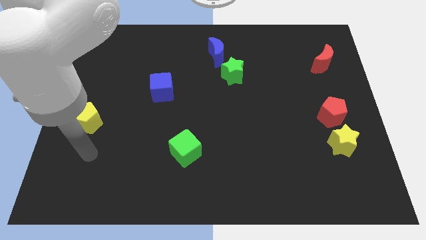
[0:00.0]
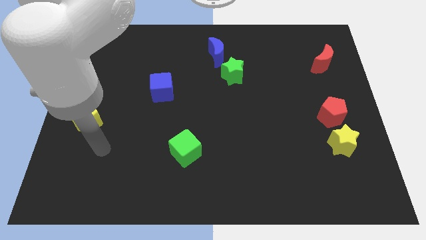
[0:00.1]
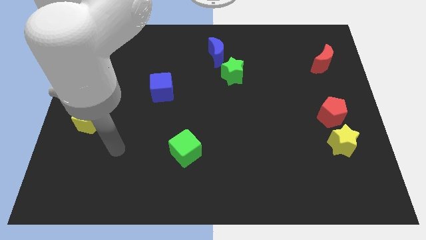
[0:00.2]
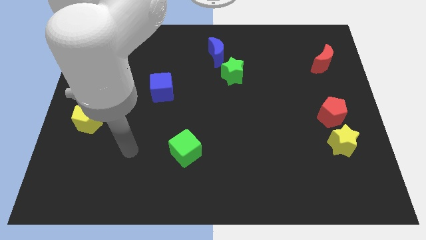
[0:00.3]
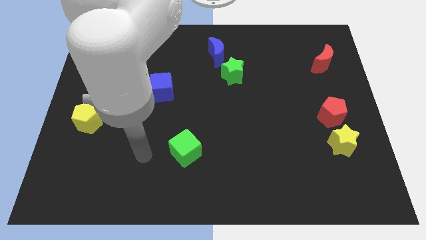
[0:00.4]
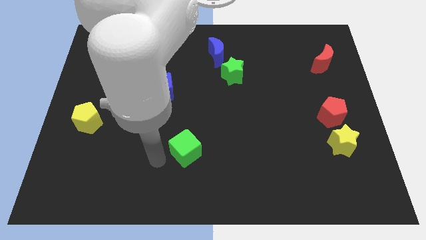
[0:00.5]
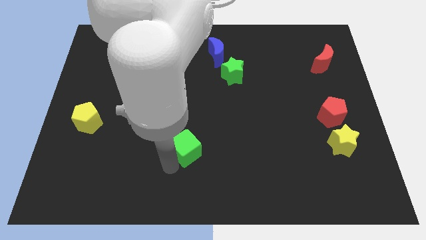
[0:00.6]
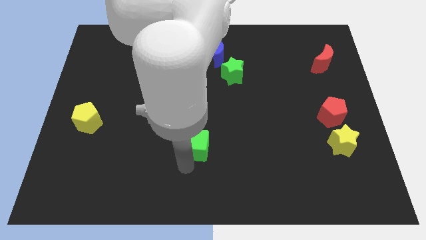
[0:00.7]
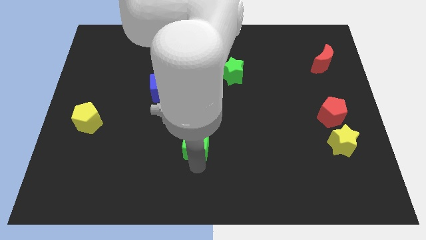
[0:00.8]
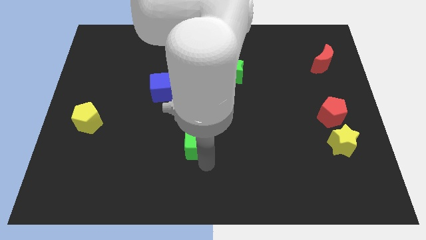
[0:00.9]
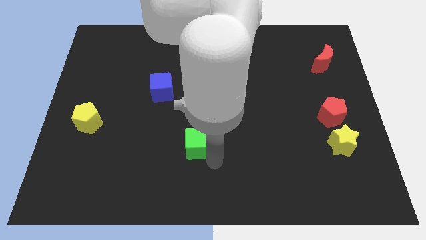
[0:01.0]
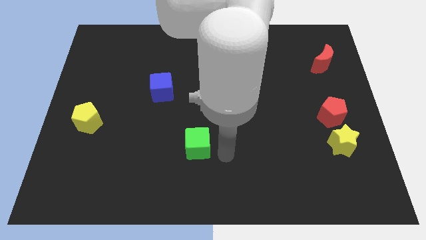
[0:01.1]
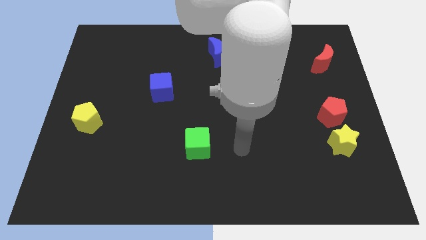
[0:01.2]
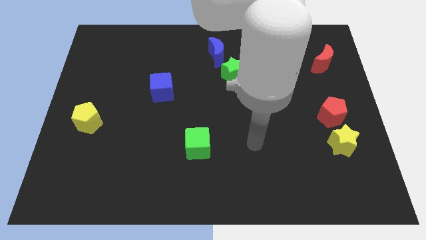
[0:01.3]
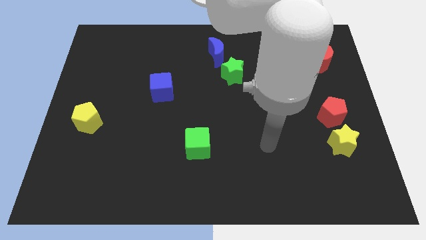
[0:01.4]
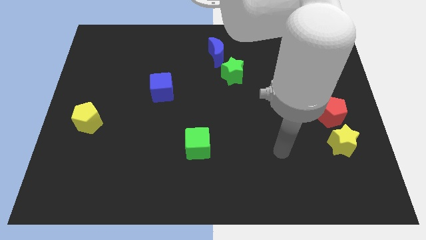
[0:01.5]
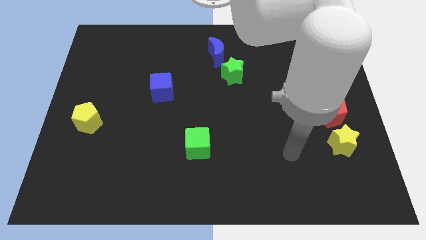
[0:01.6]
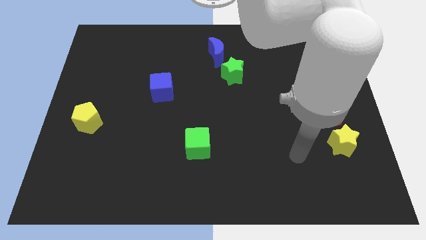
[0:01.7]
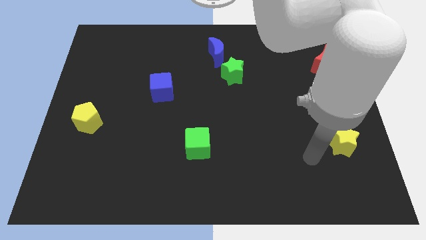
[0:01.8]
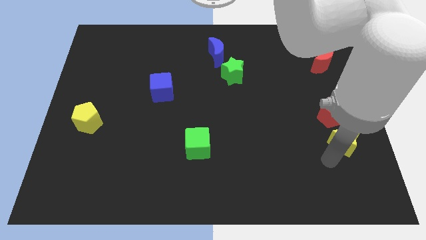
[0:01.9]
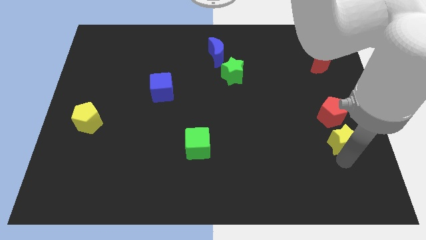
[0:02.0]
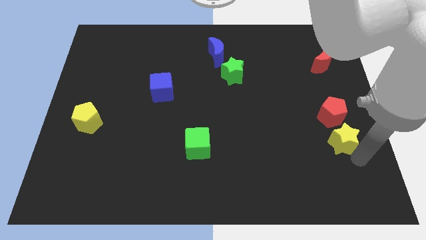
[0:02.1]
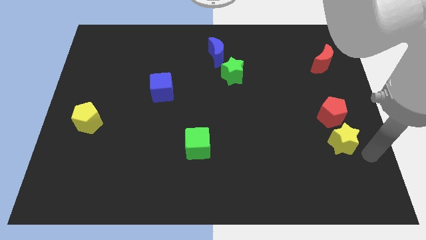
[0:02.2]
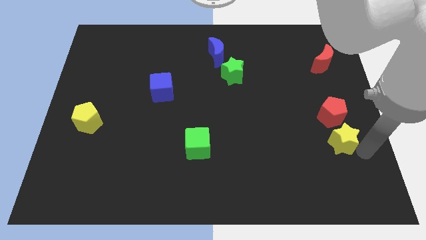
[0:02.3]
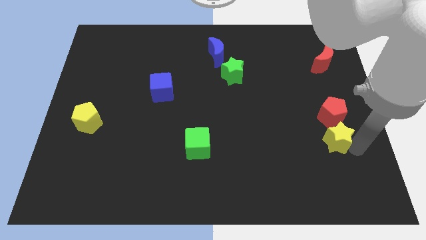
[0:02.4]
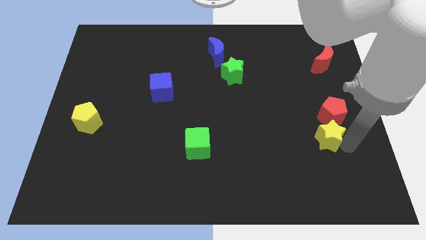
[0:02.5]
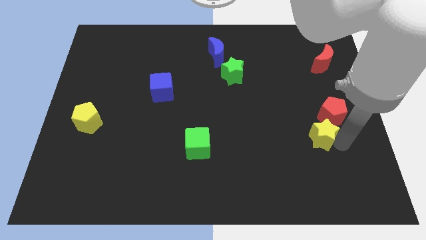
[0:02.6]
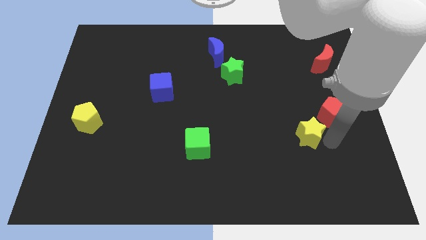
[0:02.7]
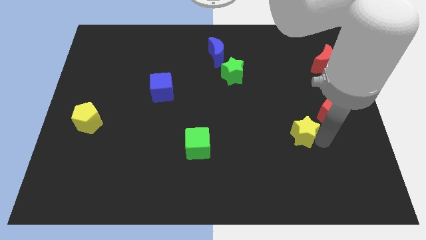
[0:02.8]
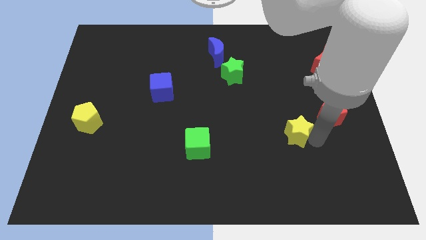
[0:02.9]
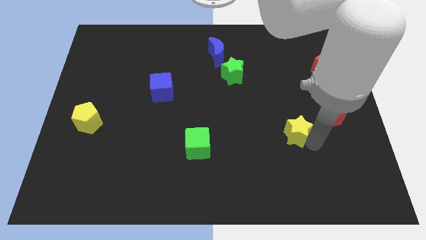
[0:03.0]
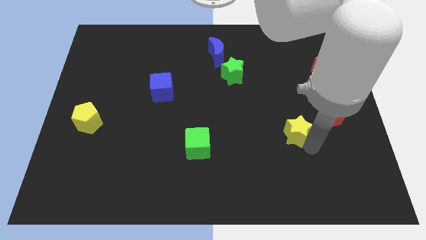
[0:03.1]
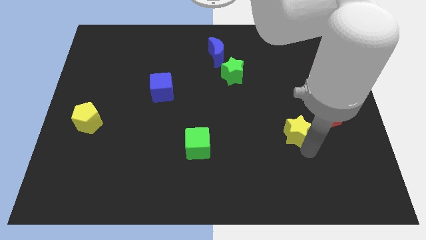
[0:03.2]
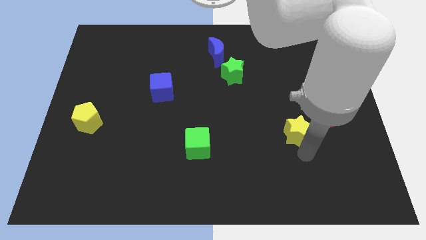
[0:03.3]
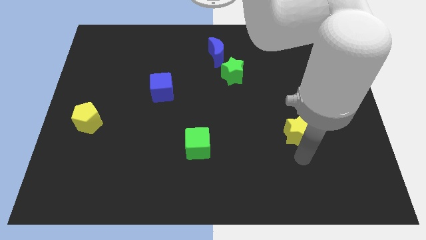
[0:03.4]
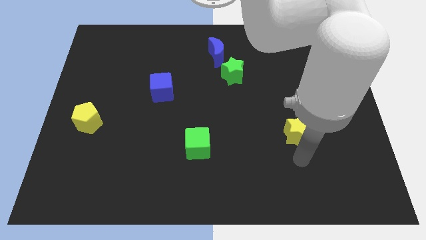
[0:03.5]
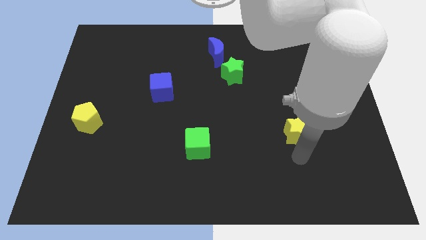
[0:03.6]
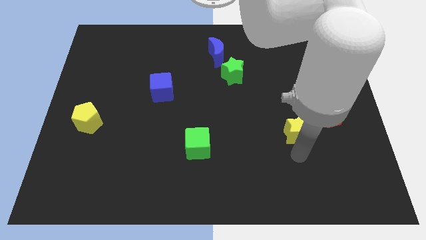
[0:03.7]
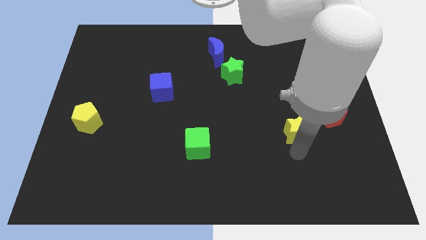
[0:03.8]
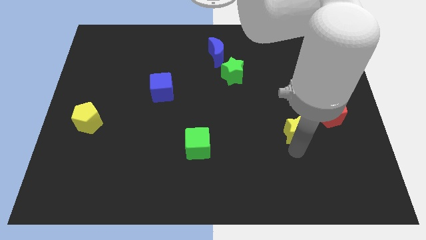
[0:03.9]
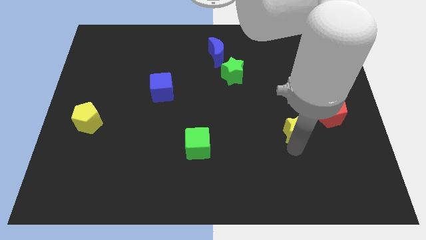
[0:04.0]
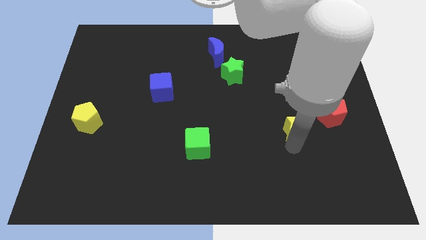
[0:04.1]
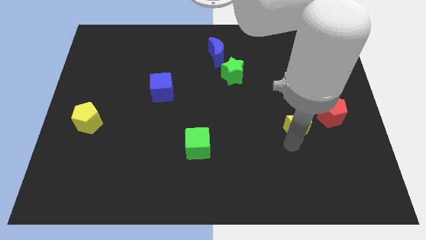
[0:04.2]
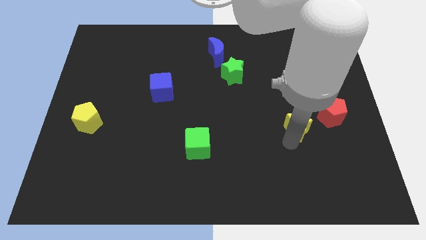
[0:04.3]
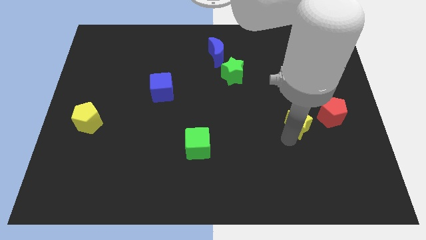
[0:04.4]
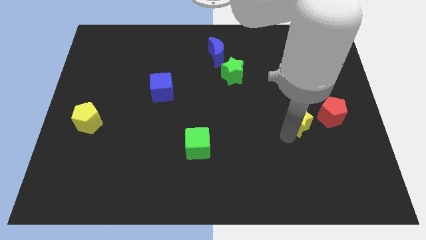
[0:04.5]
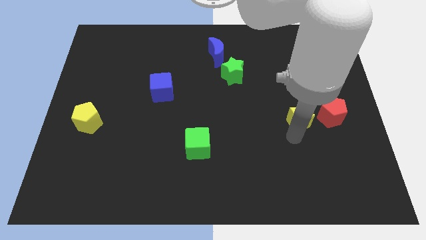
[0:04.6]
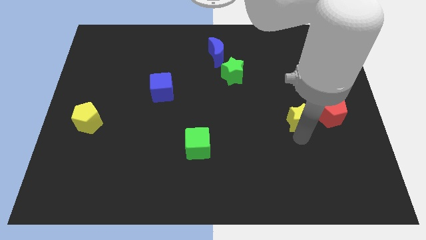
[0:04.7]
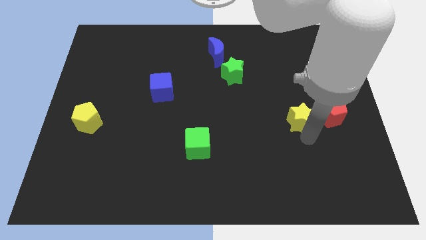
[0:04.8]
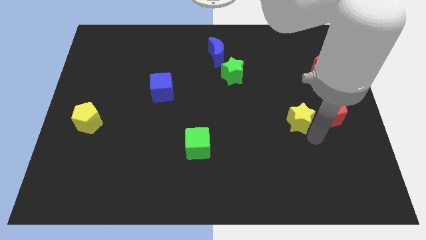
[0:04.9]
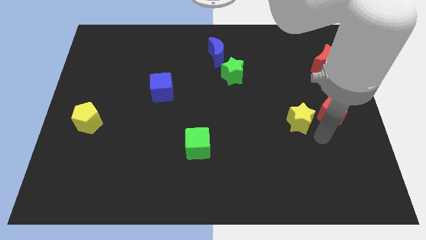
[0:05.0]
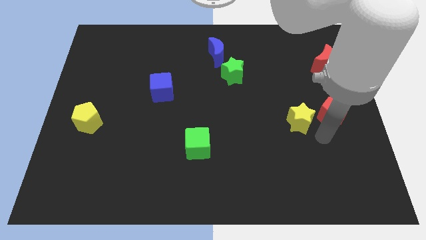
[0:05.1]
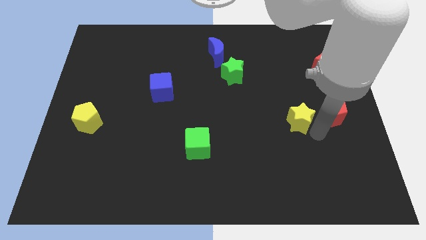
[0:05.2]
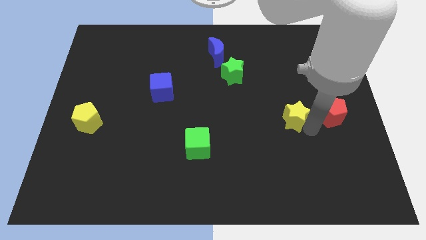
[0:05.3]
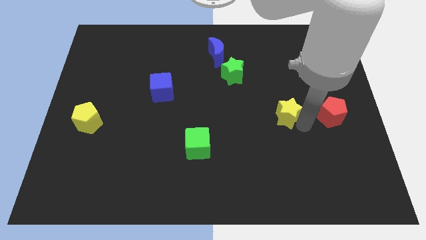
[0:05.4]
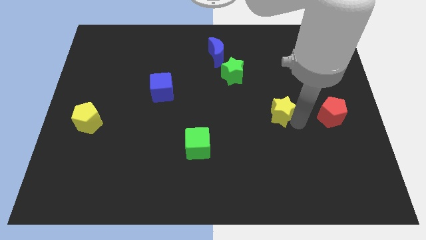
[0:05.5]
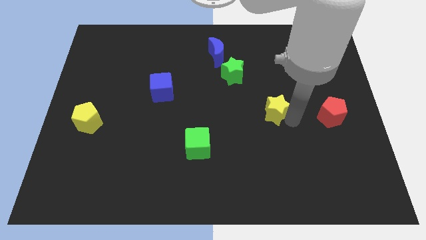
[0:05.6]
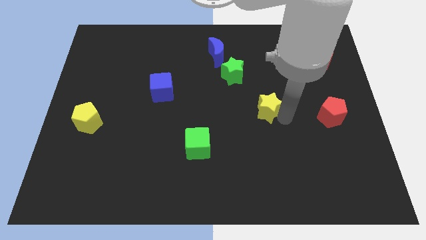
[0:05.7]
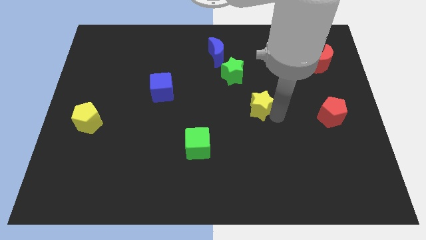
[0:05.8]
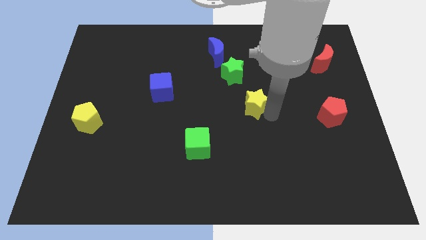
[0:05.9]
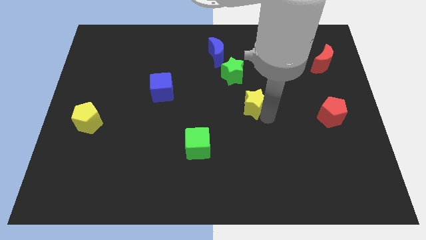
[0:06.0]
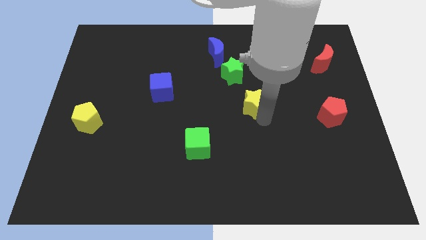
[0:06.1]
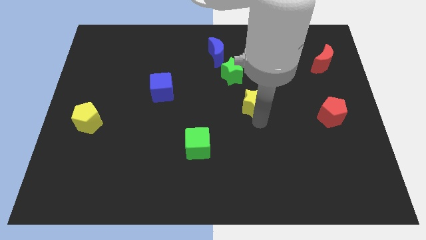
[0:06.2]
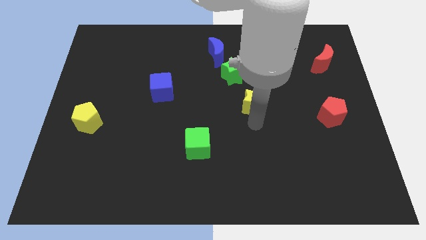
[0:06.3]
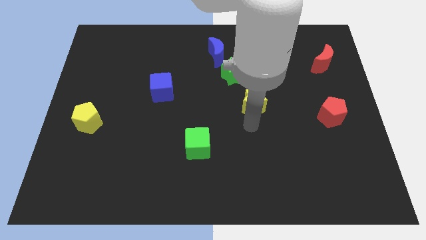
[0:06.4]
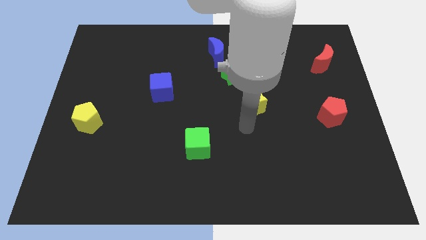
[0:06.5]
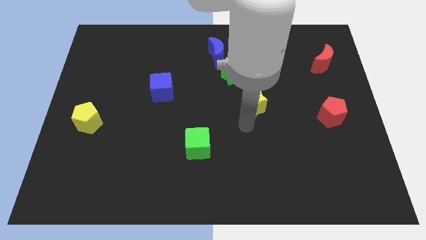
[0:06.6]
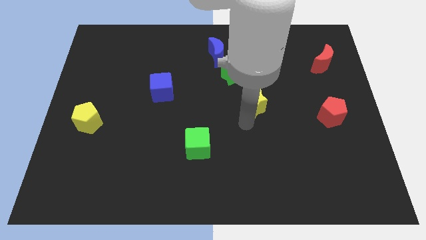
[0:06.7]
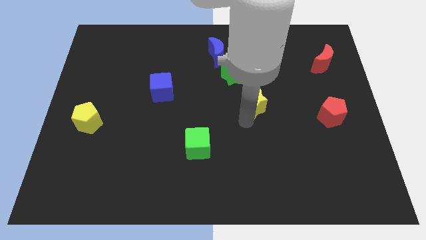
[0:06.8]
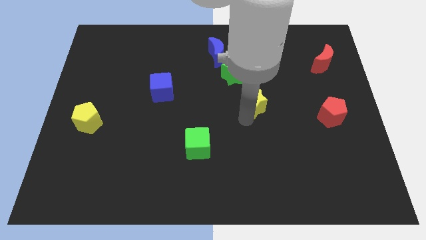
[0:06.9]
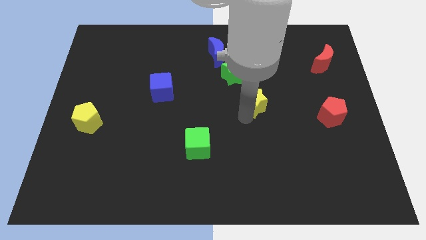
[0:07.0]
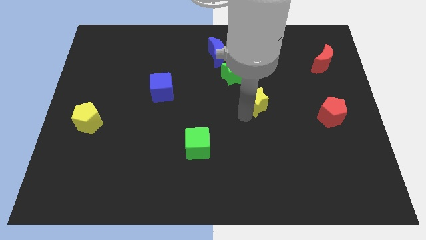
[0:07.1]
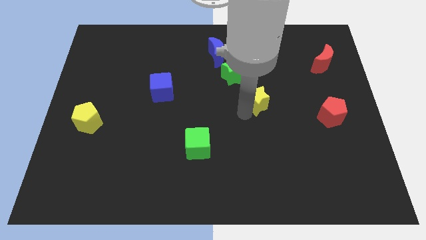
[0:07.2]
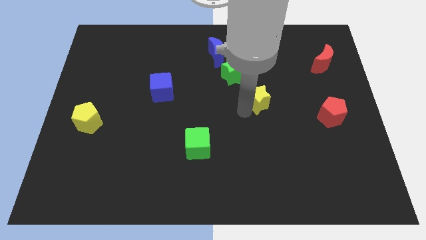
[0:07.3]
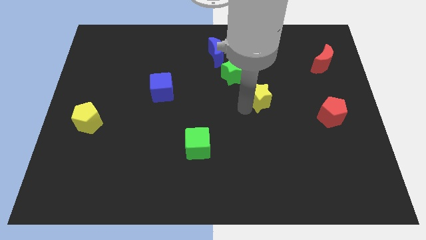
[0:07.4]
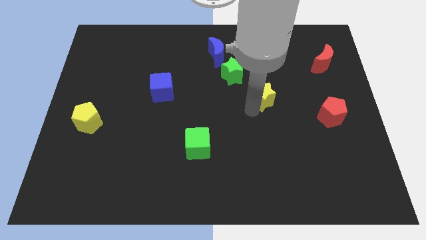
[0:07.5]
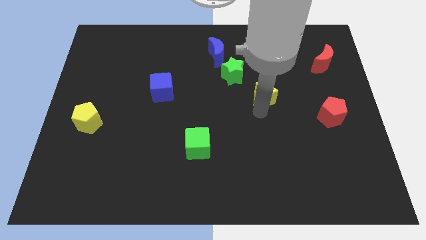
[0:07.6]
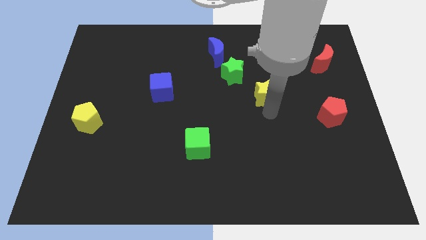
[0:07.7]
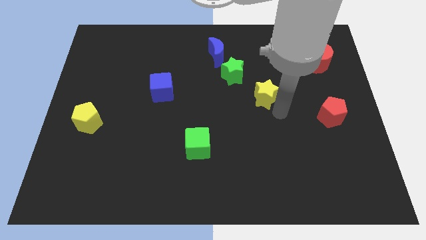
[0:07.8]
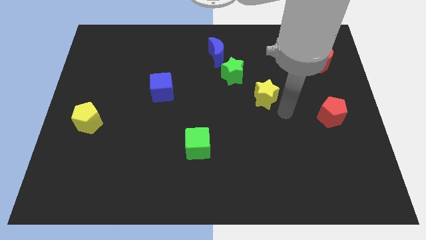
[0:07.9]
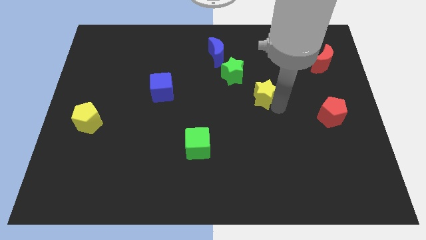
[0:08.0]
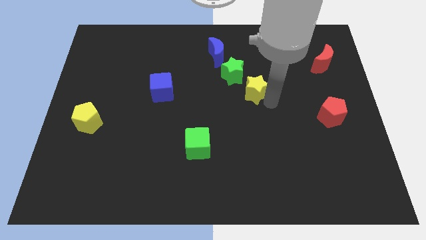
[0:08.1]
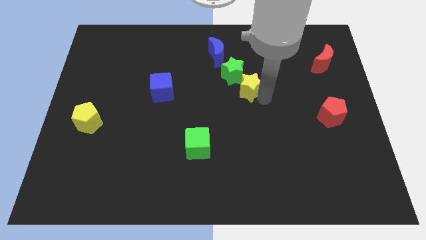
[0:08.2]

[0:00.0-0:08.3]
slide the yellow star to the green star
